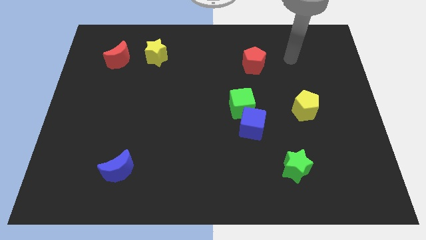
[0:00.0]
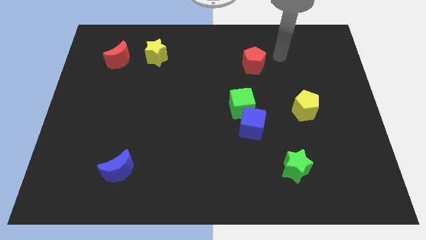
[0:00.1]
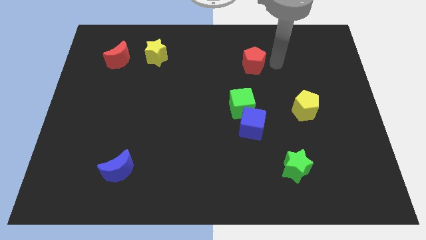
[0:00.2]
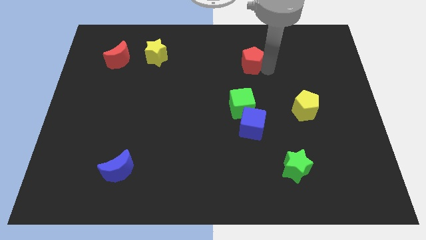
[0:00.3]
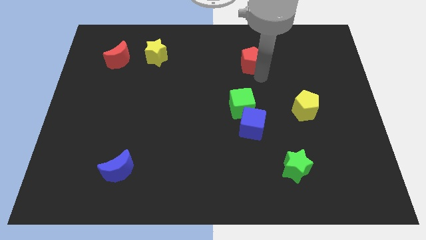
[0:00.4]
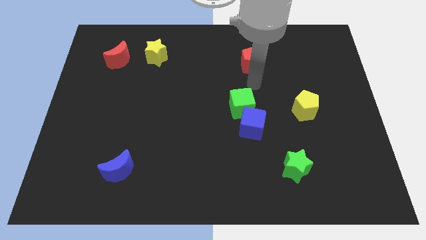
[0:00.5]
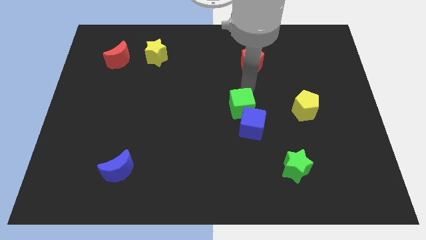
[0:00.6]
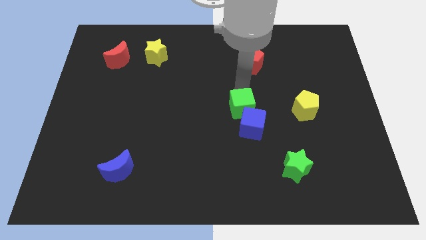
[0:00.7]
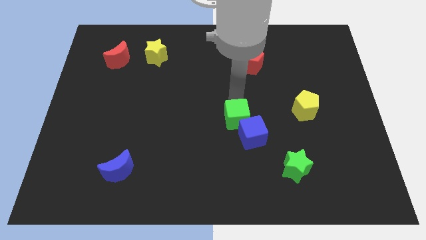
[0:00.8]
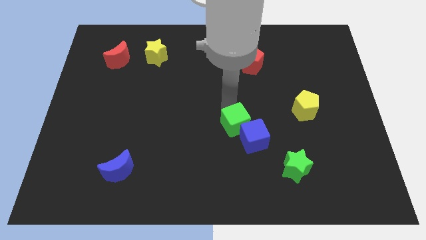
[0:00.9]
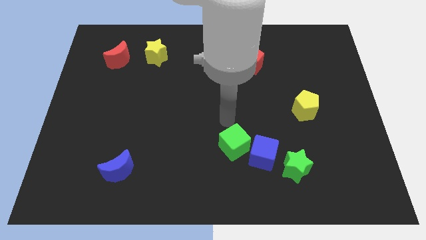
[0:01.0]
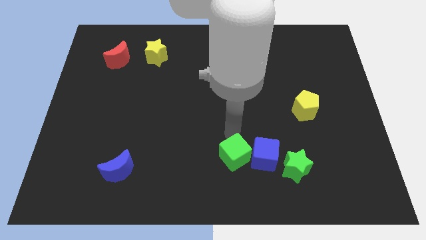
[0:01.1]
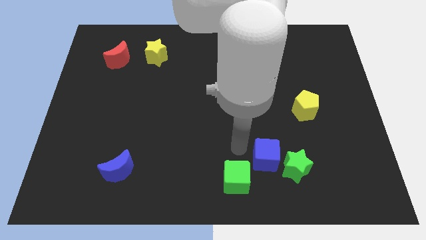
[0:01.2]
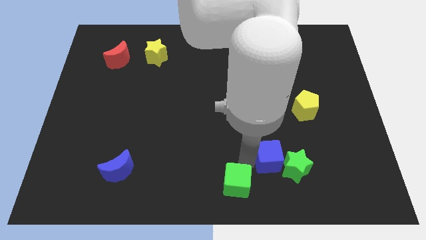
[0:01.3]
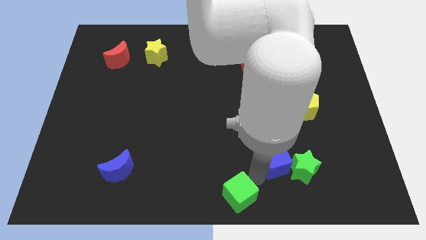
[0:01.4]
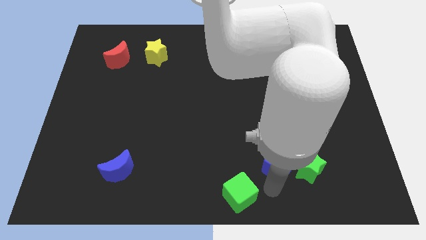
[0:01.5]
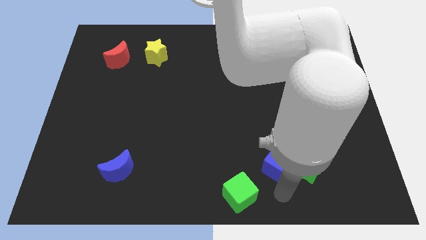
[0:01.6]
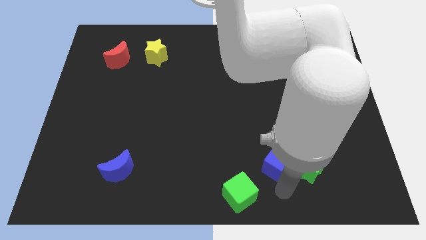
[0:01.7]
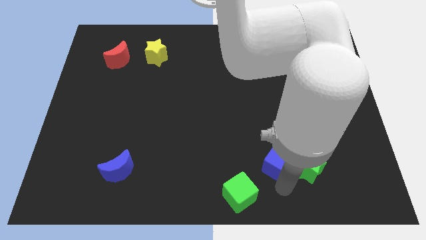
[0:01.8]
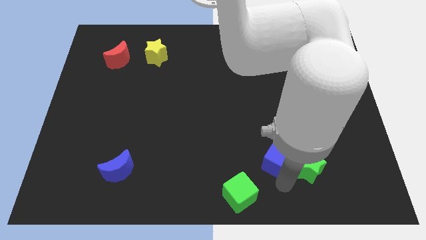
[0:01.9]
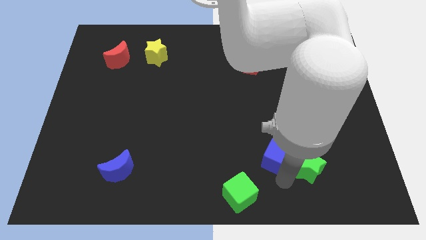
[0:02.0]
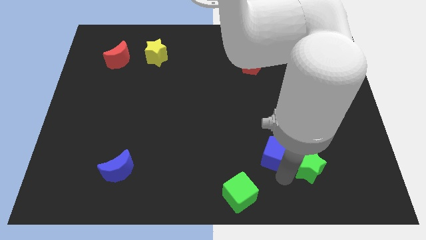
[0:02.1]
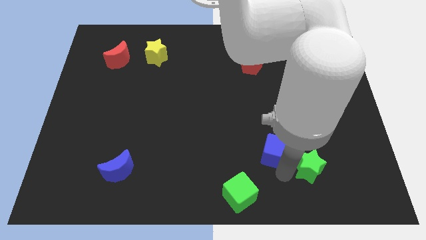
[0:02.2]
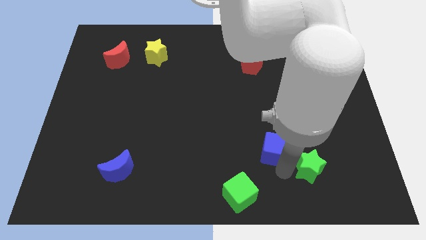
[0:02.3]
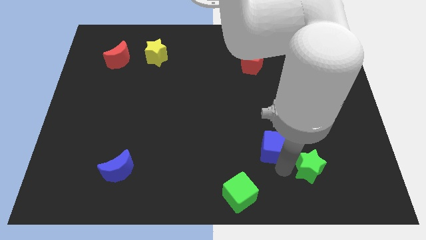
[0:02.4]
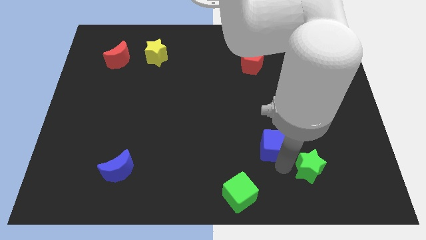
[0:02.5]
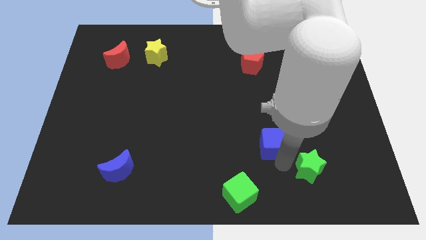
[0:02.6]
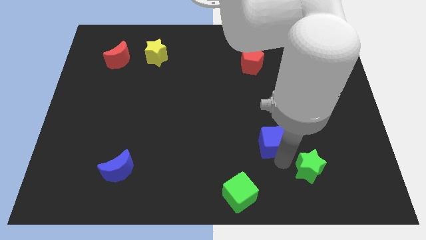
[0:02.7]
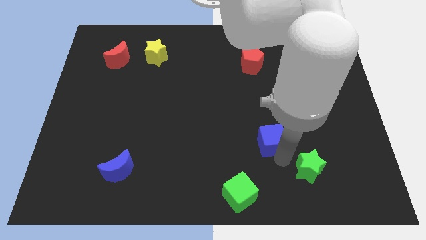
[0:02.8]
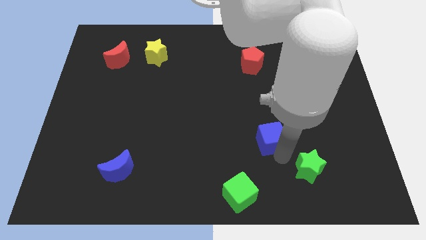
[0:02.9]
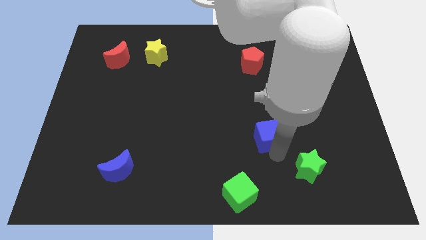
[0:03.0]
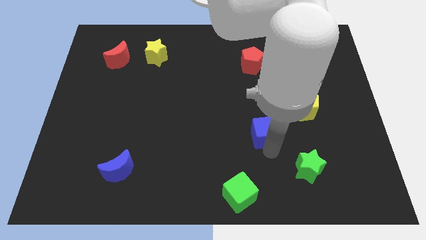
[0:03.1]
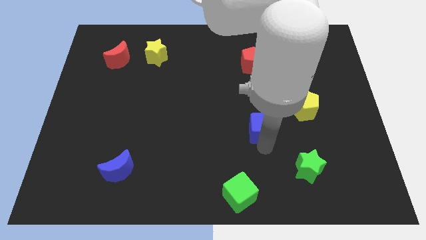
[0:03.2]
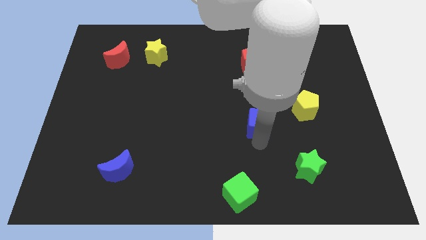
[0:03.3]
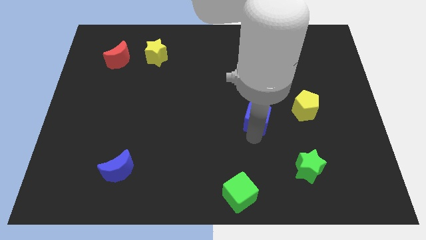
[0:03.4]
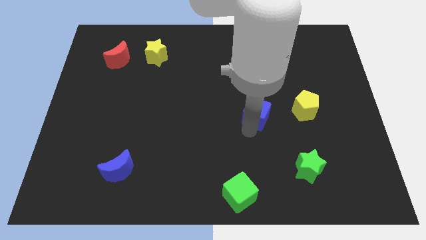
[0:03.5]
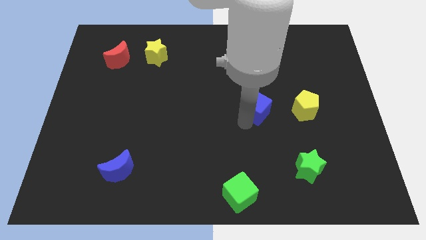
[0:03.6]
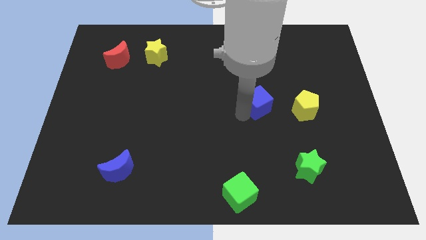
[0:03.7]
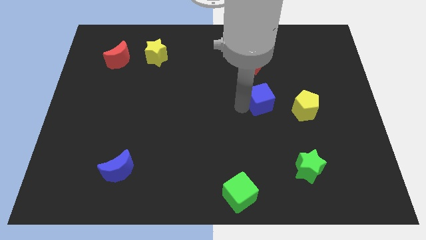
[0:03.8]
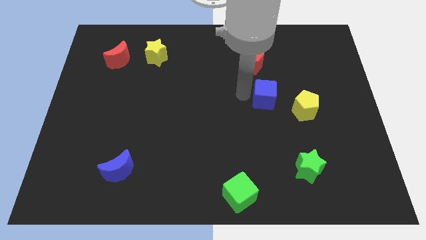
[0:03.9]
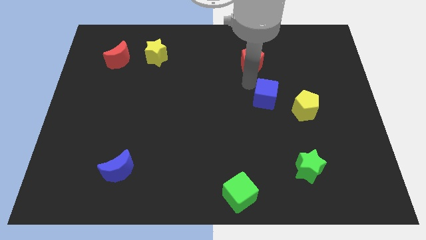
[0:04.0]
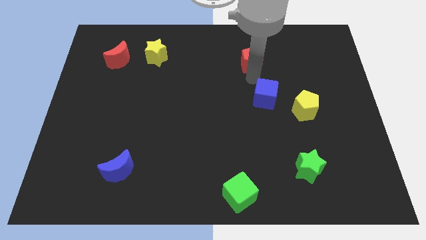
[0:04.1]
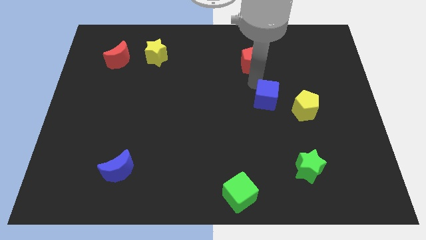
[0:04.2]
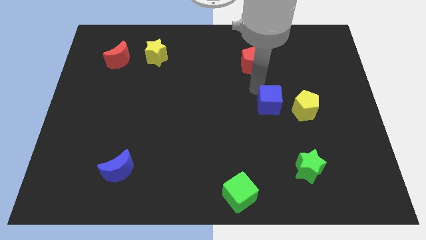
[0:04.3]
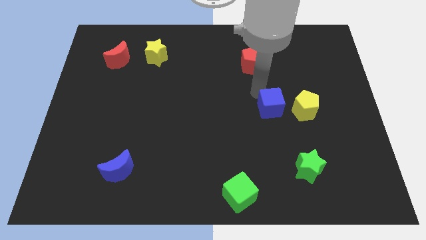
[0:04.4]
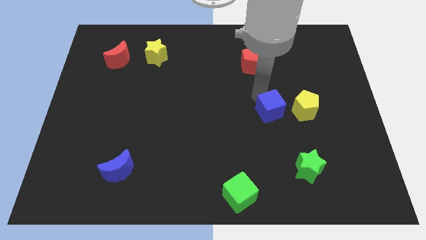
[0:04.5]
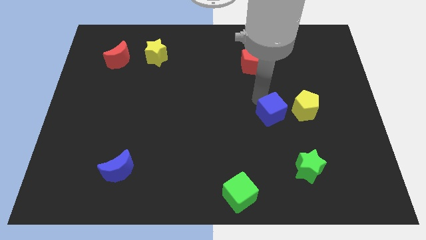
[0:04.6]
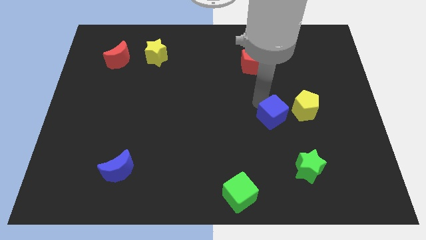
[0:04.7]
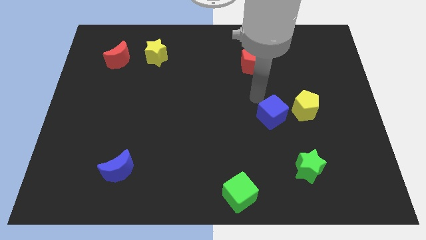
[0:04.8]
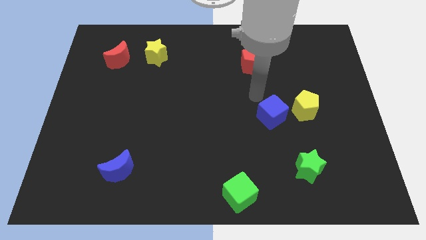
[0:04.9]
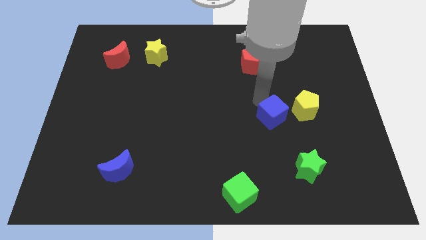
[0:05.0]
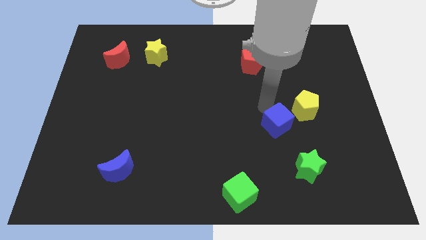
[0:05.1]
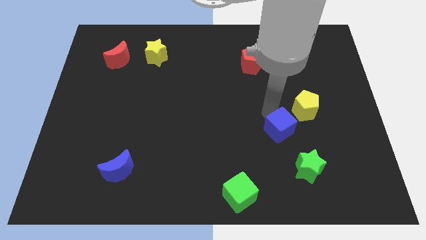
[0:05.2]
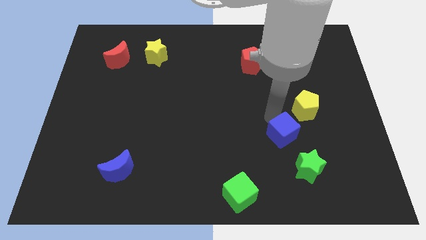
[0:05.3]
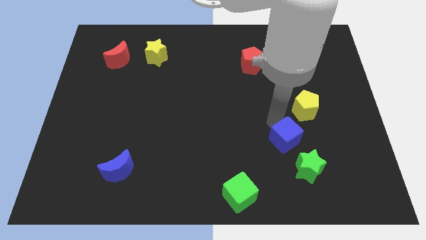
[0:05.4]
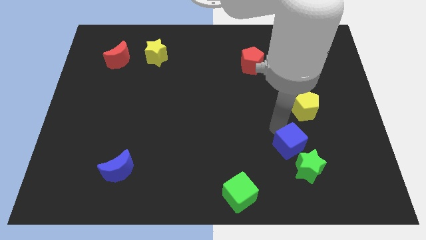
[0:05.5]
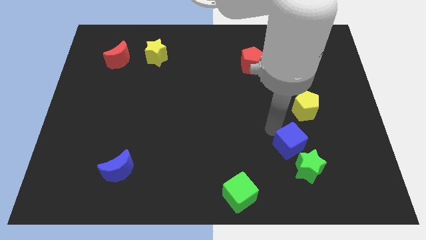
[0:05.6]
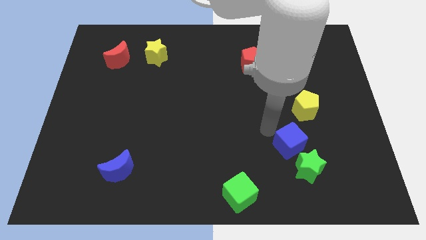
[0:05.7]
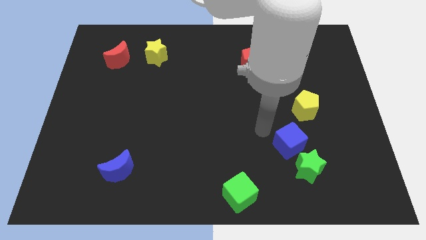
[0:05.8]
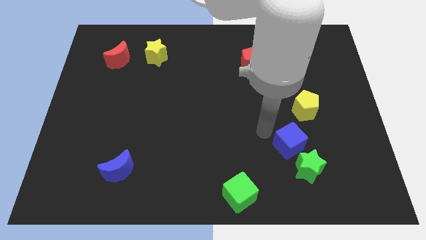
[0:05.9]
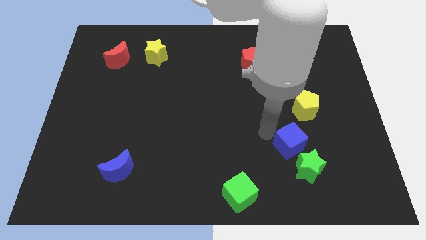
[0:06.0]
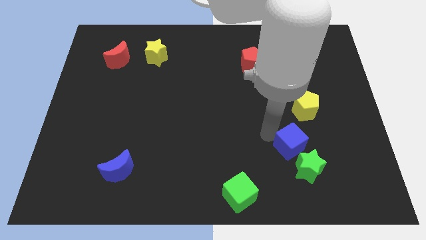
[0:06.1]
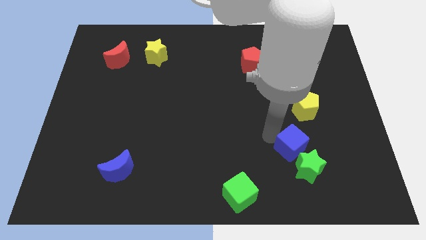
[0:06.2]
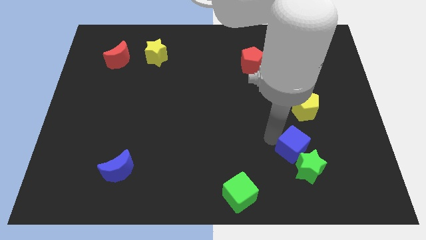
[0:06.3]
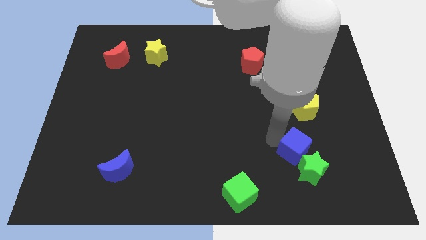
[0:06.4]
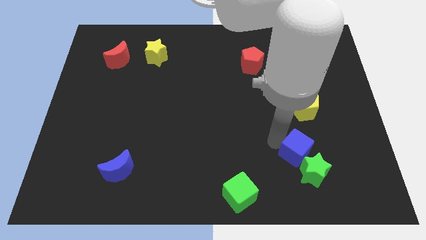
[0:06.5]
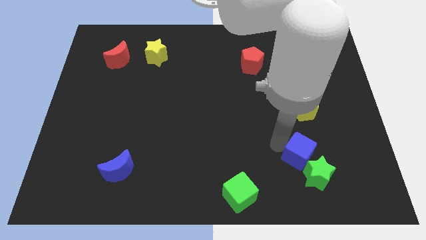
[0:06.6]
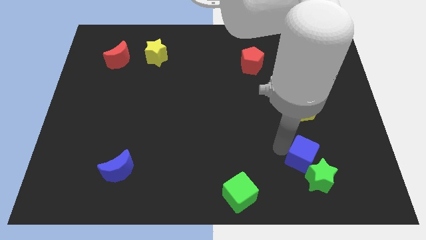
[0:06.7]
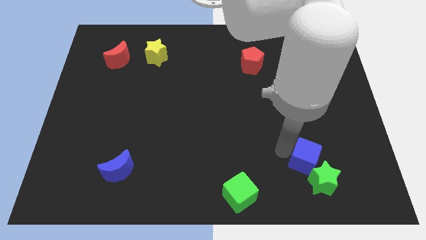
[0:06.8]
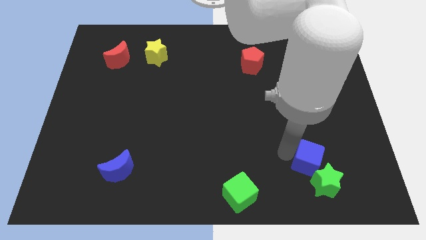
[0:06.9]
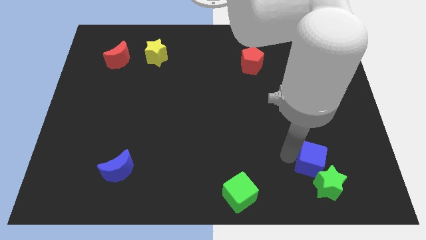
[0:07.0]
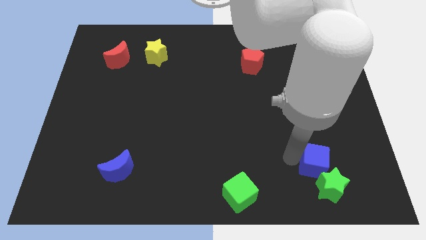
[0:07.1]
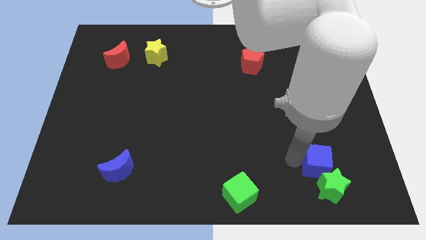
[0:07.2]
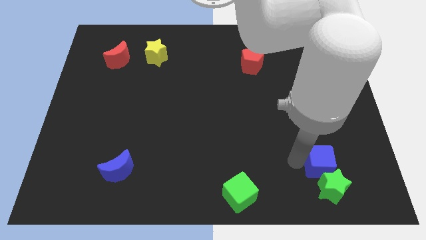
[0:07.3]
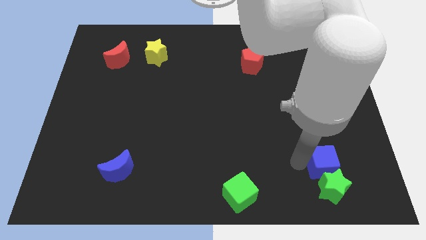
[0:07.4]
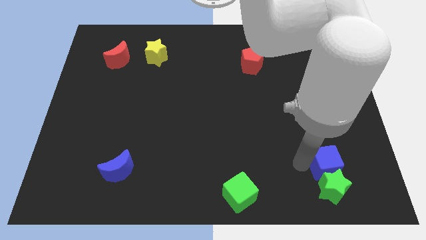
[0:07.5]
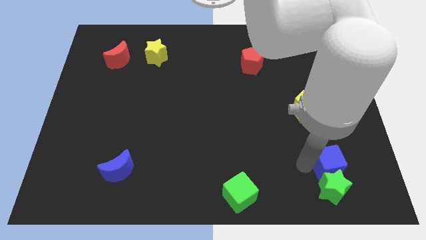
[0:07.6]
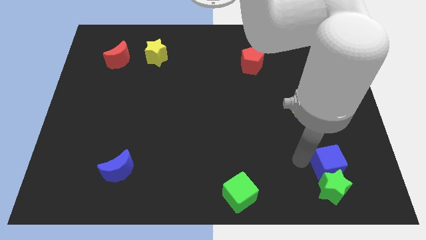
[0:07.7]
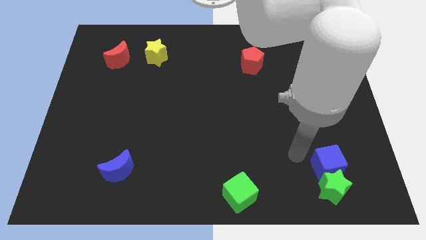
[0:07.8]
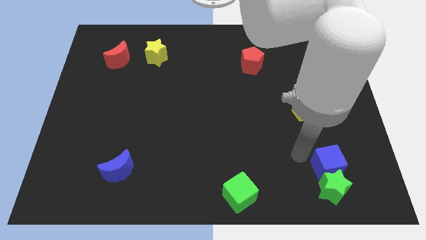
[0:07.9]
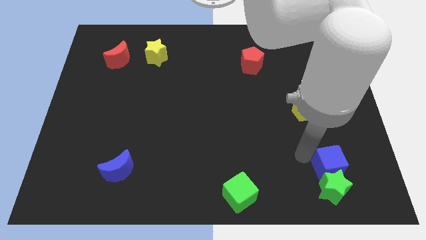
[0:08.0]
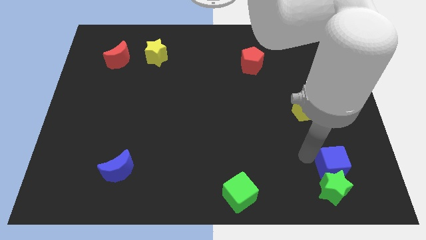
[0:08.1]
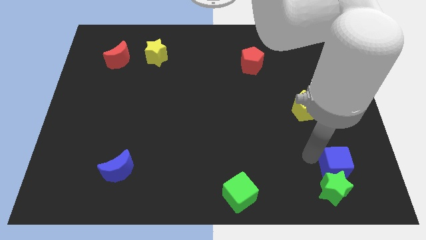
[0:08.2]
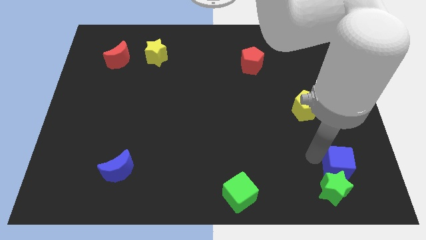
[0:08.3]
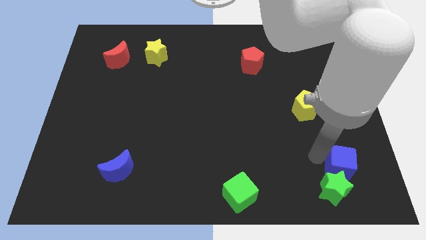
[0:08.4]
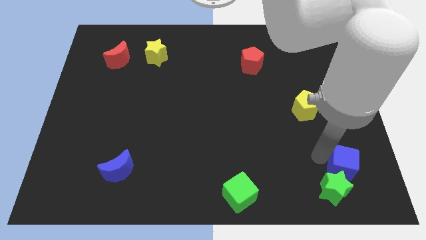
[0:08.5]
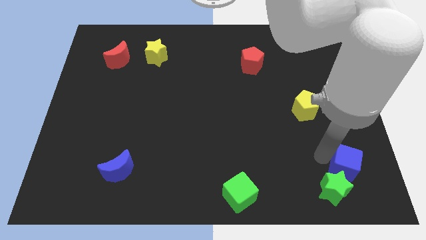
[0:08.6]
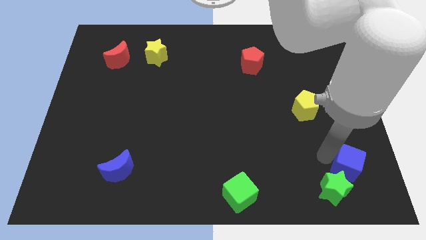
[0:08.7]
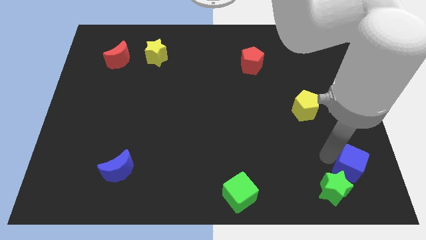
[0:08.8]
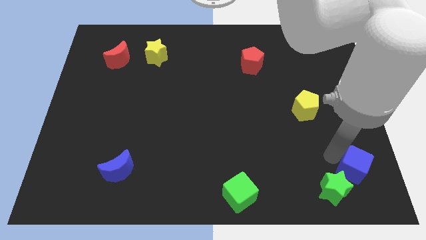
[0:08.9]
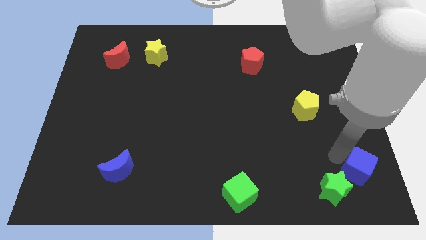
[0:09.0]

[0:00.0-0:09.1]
put the blue cube to the bottom right
